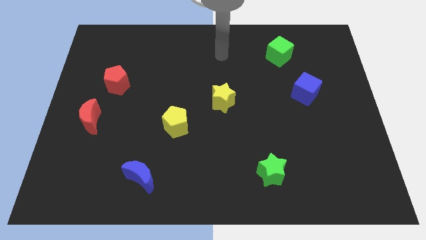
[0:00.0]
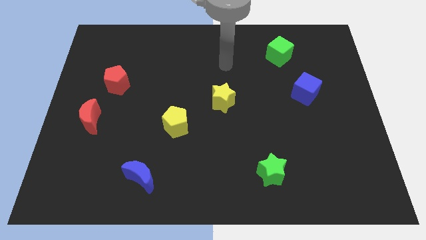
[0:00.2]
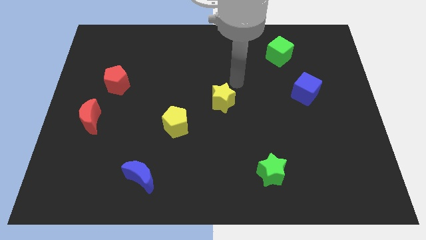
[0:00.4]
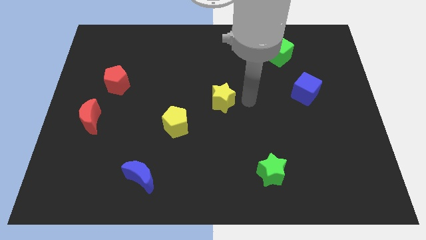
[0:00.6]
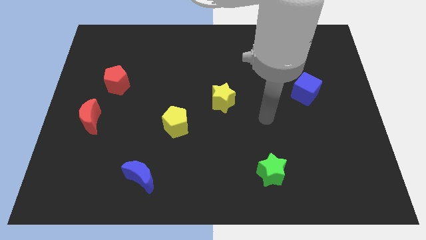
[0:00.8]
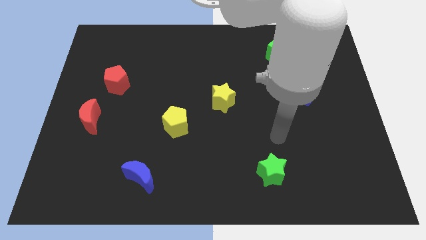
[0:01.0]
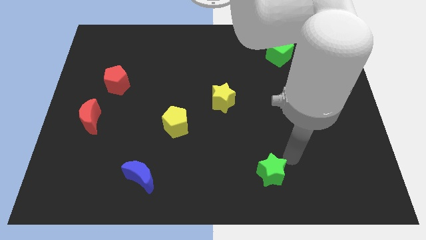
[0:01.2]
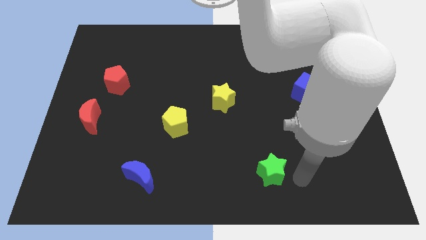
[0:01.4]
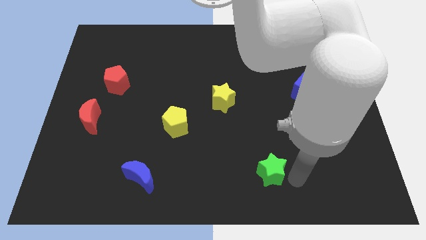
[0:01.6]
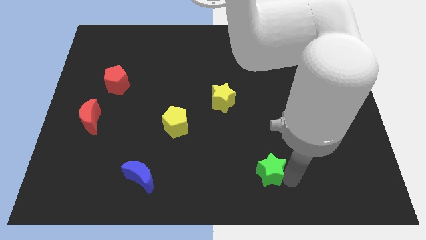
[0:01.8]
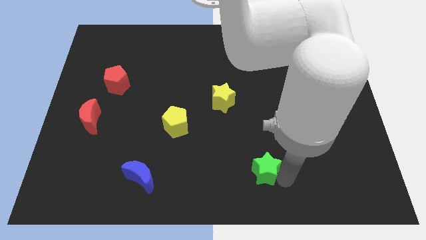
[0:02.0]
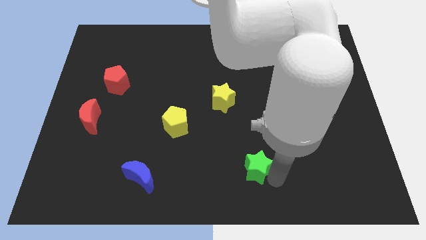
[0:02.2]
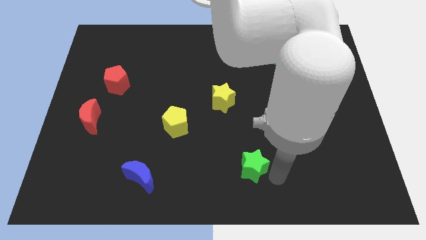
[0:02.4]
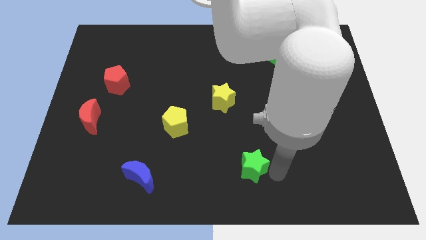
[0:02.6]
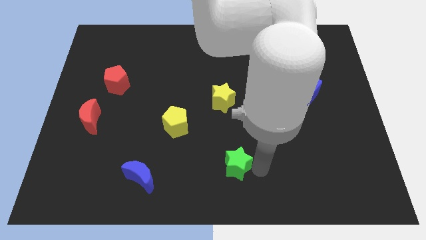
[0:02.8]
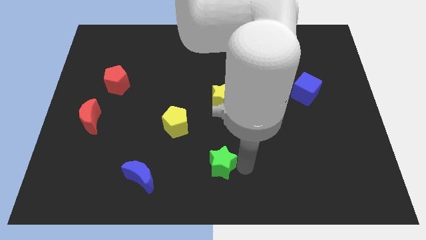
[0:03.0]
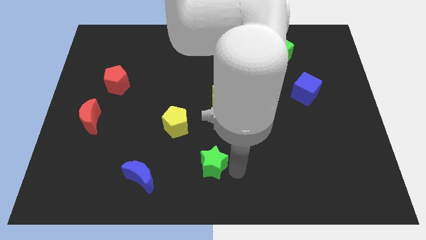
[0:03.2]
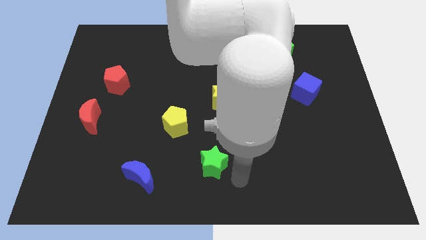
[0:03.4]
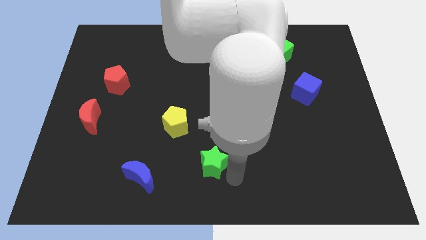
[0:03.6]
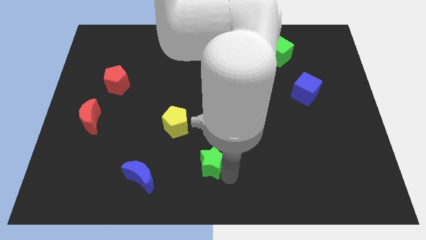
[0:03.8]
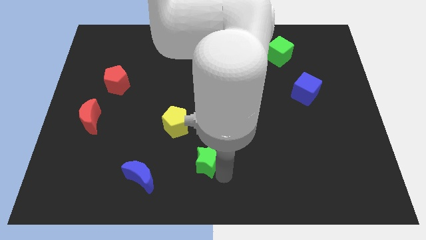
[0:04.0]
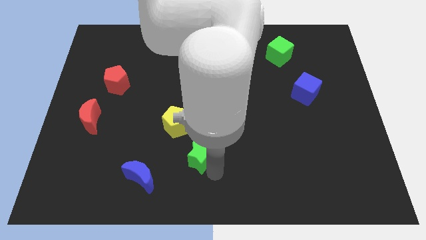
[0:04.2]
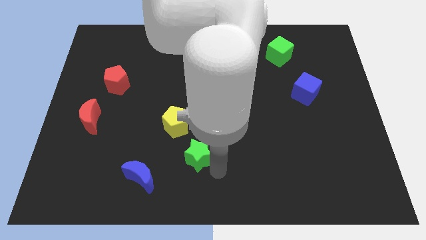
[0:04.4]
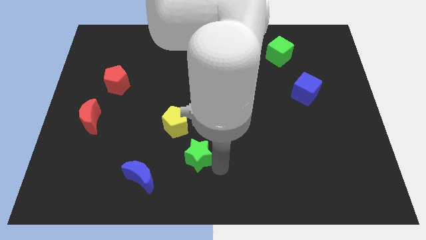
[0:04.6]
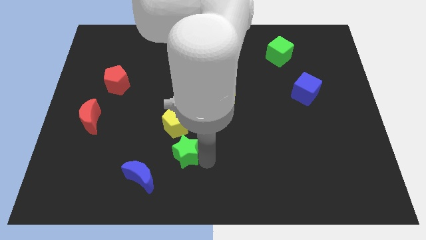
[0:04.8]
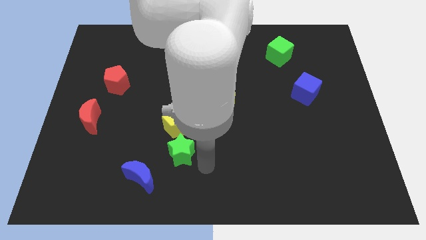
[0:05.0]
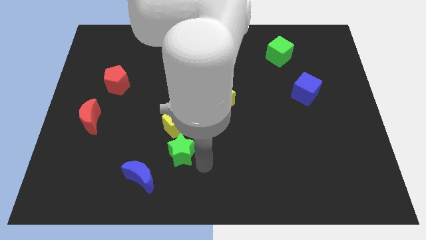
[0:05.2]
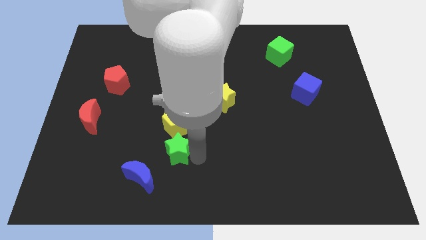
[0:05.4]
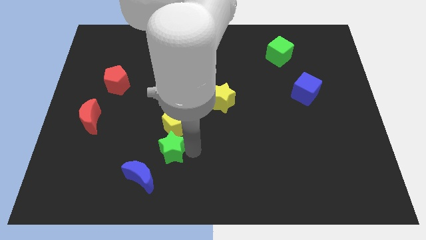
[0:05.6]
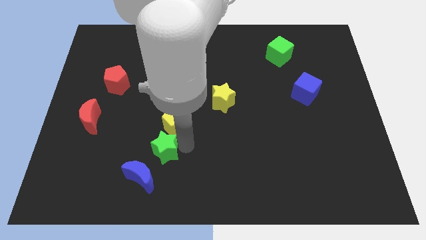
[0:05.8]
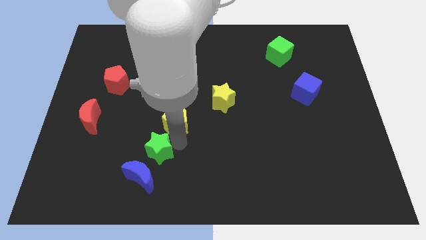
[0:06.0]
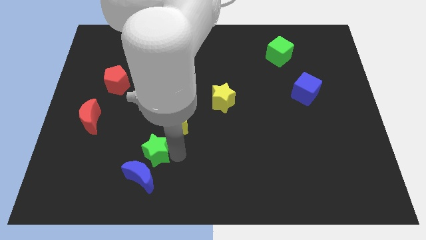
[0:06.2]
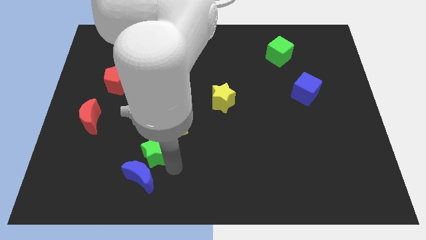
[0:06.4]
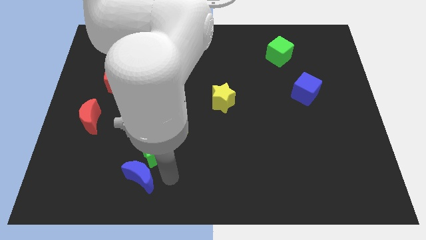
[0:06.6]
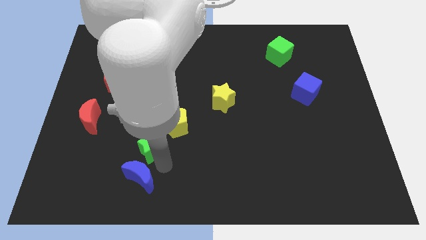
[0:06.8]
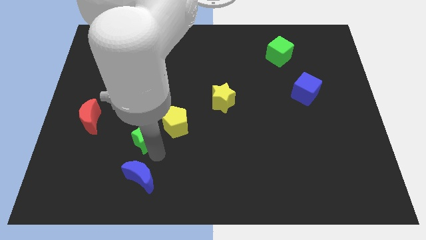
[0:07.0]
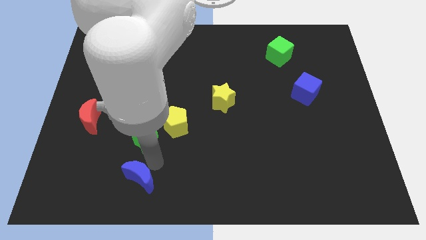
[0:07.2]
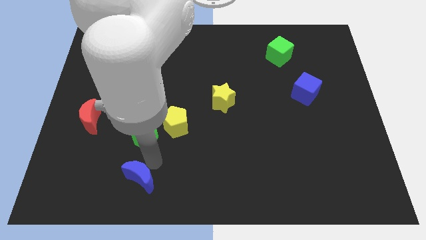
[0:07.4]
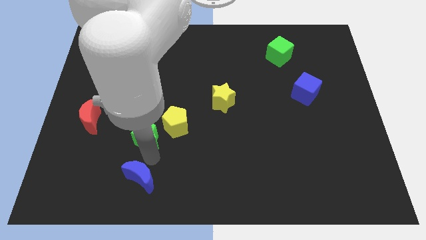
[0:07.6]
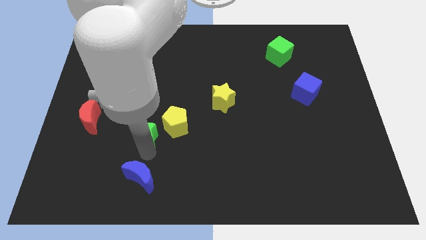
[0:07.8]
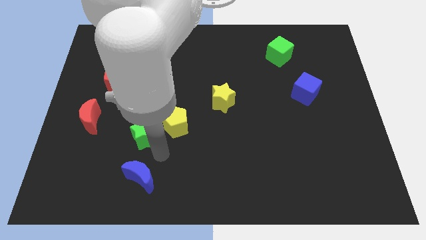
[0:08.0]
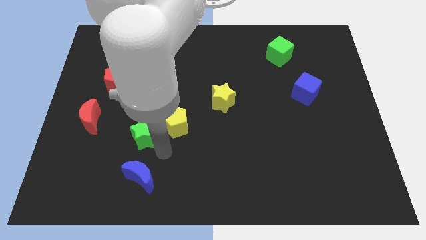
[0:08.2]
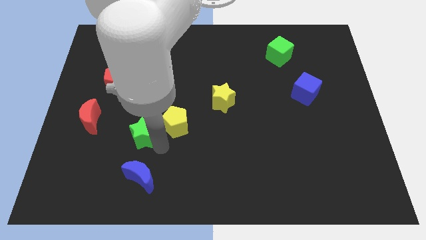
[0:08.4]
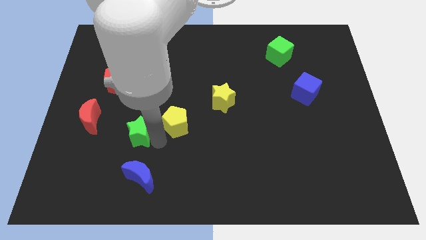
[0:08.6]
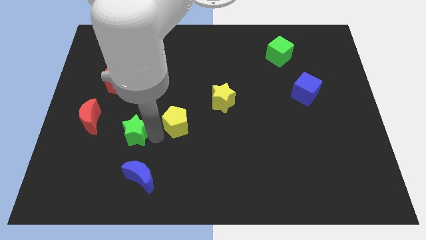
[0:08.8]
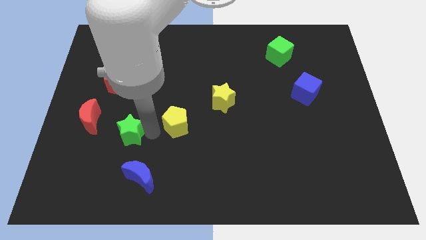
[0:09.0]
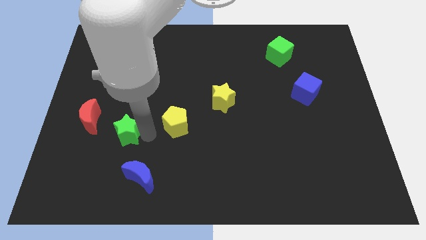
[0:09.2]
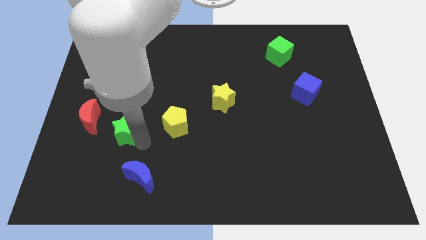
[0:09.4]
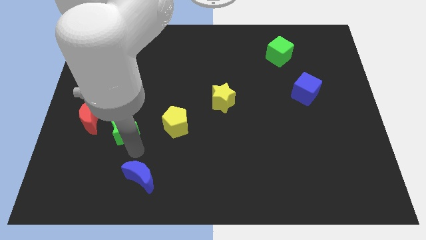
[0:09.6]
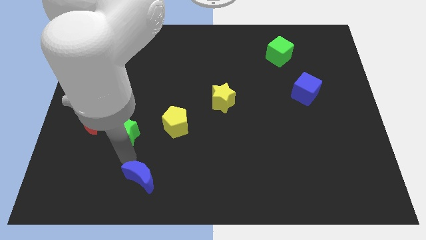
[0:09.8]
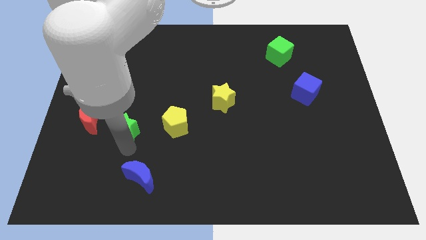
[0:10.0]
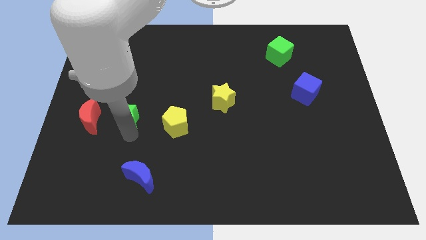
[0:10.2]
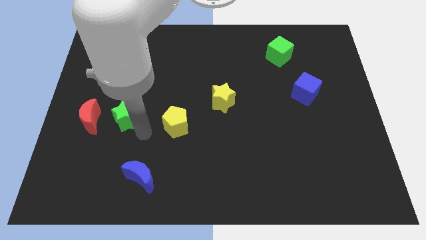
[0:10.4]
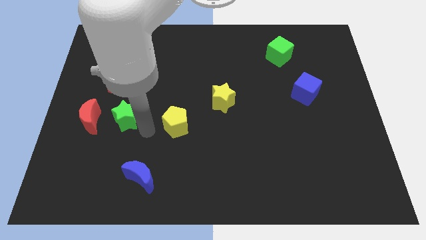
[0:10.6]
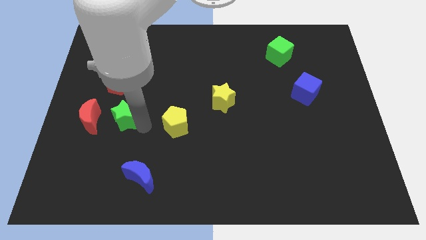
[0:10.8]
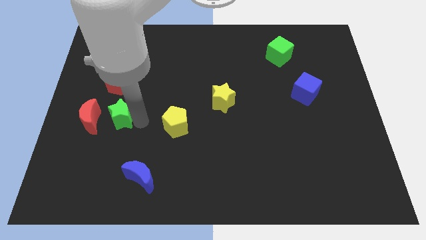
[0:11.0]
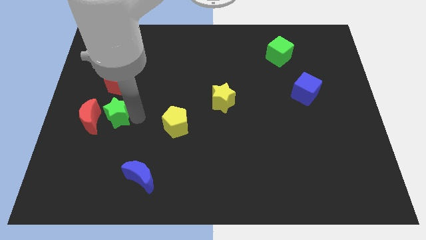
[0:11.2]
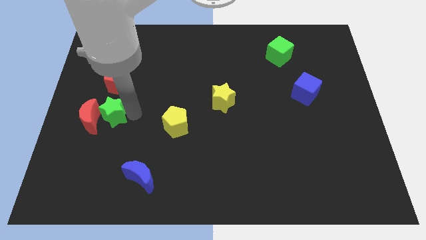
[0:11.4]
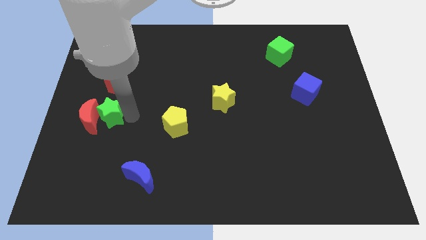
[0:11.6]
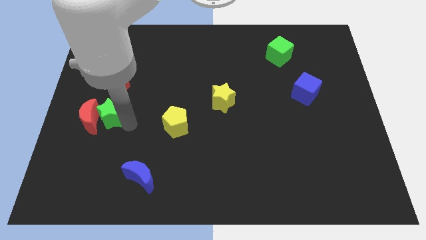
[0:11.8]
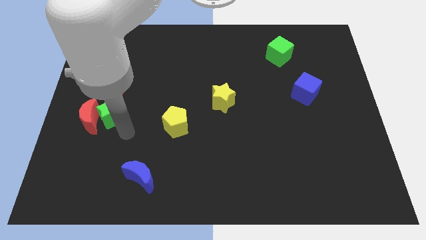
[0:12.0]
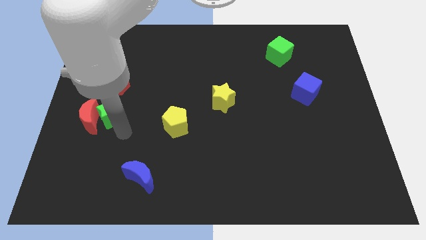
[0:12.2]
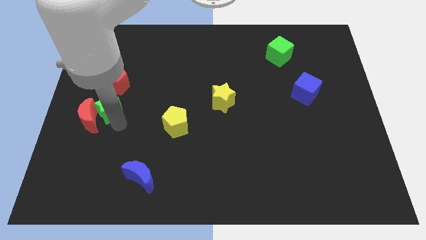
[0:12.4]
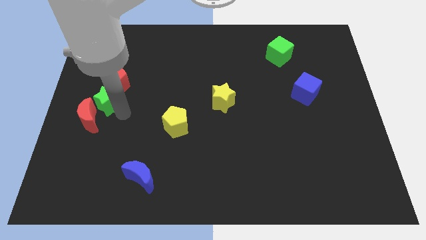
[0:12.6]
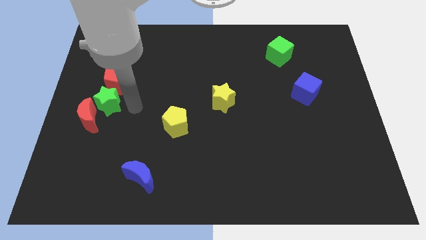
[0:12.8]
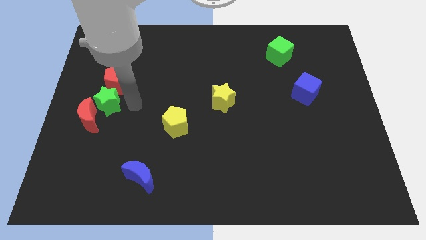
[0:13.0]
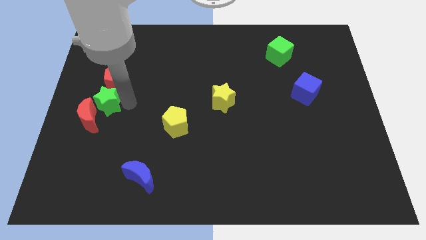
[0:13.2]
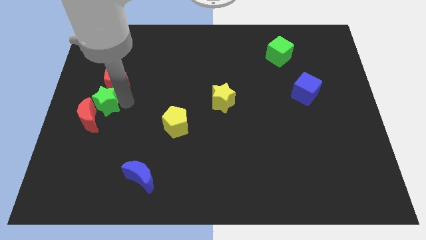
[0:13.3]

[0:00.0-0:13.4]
move the green star to the left side of the board
